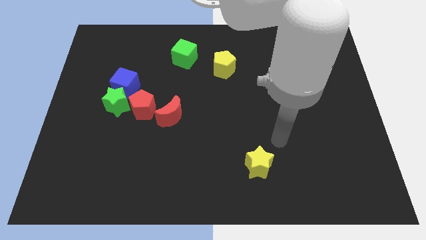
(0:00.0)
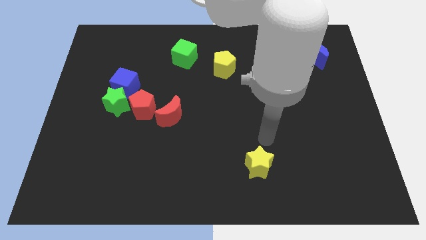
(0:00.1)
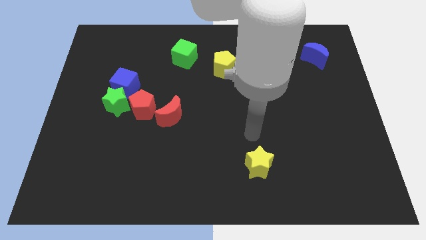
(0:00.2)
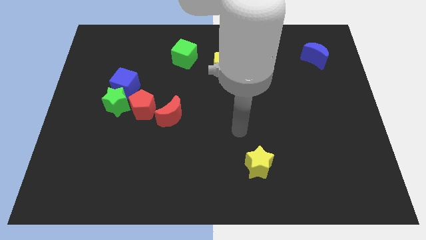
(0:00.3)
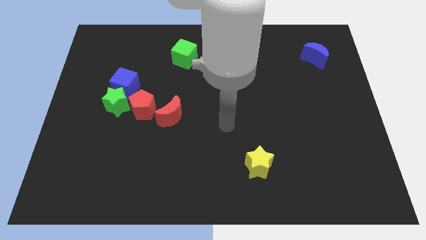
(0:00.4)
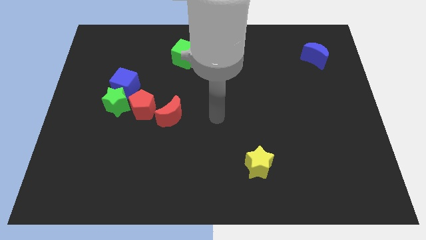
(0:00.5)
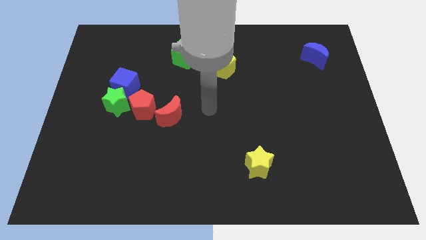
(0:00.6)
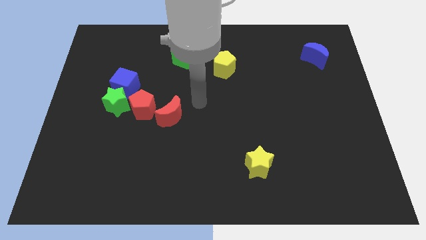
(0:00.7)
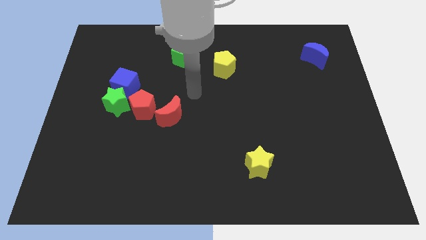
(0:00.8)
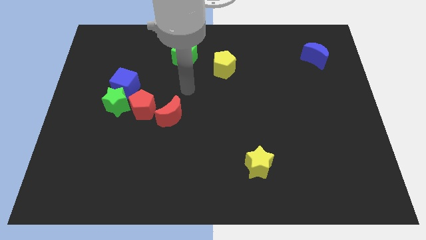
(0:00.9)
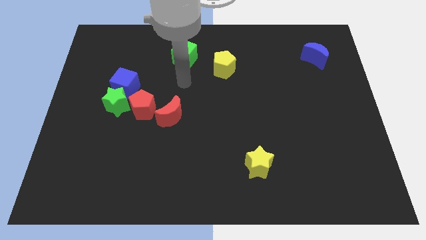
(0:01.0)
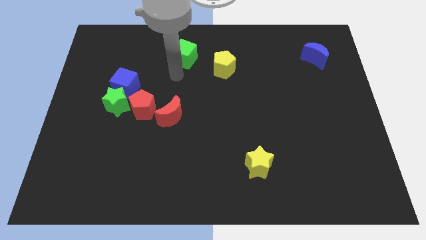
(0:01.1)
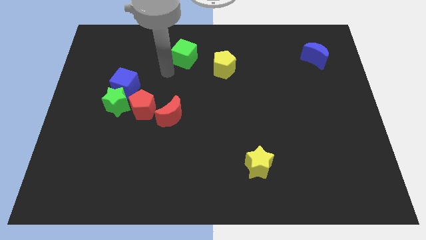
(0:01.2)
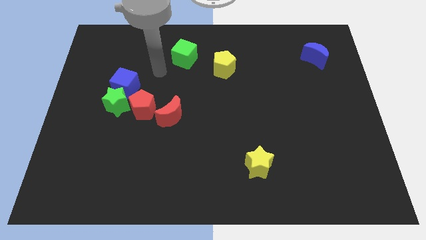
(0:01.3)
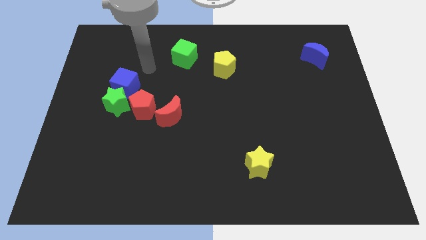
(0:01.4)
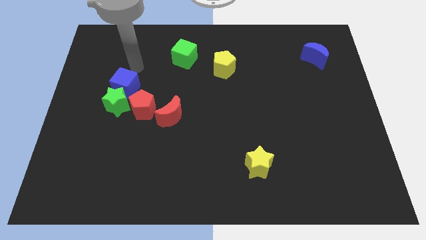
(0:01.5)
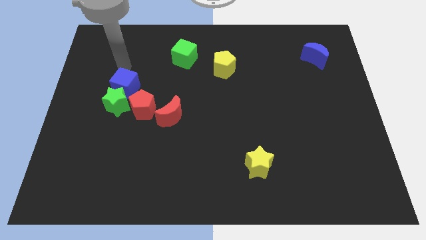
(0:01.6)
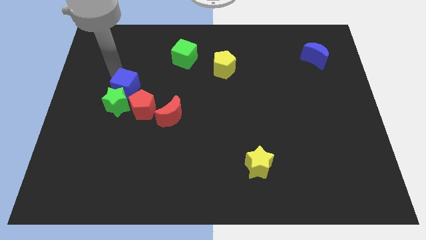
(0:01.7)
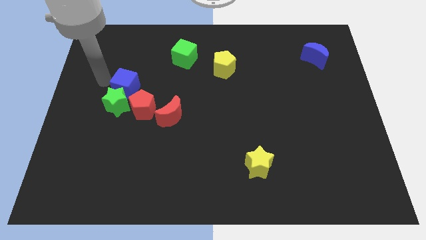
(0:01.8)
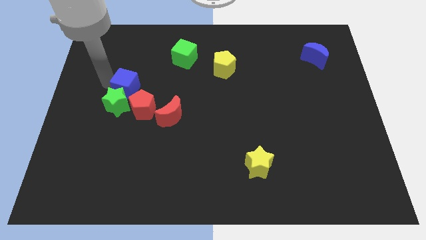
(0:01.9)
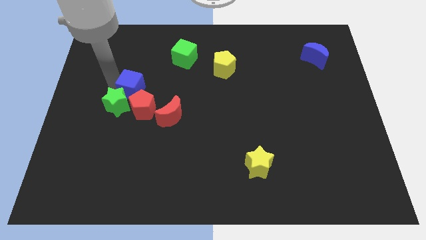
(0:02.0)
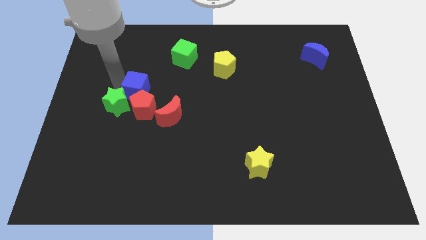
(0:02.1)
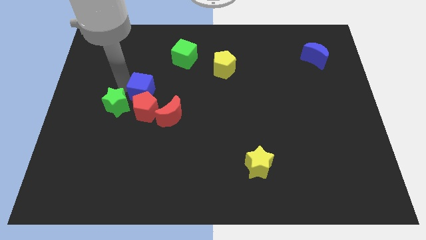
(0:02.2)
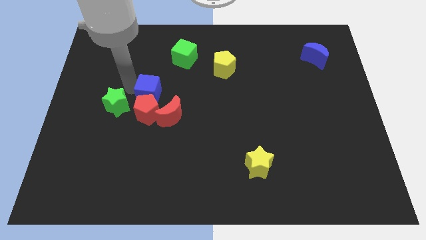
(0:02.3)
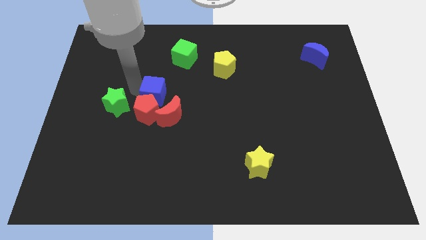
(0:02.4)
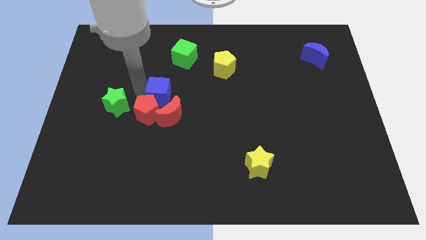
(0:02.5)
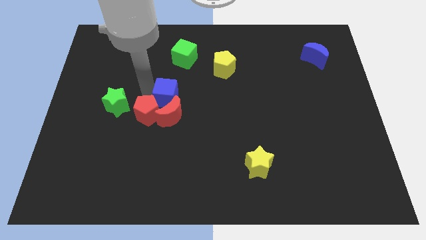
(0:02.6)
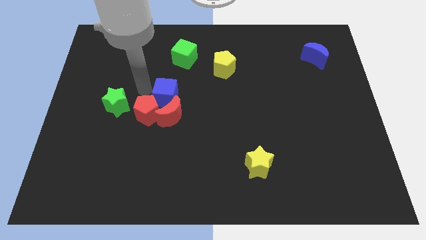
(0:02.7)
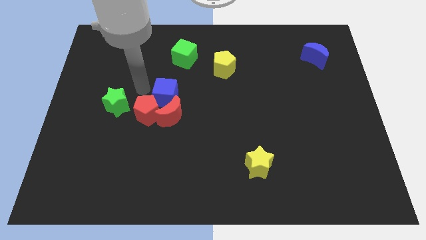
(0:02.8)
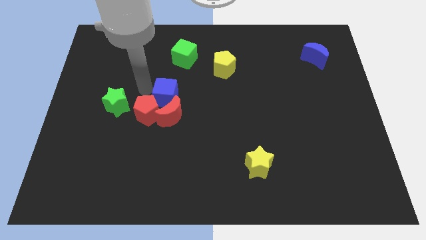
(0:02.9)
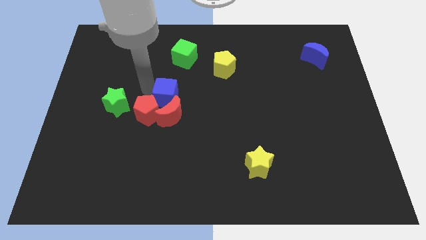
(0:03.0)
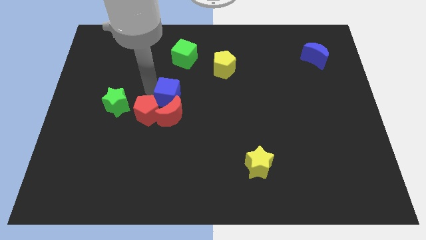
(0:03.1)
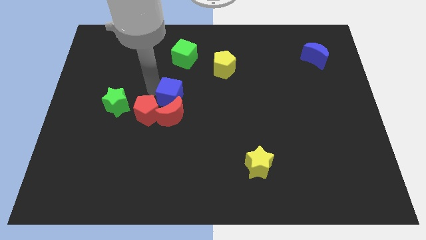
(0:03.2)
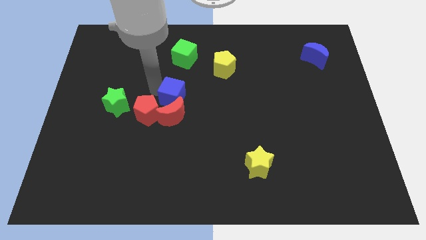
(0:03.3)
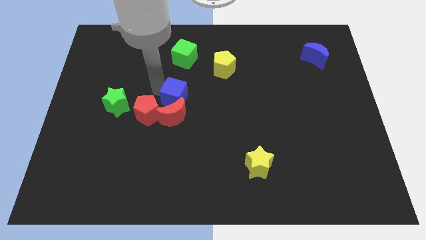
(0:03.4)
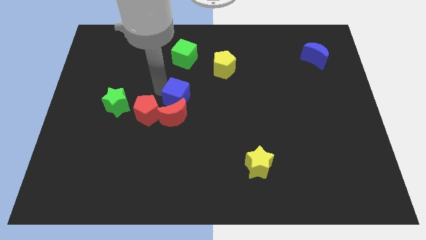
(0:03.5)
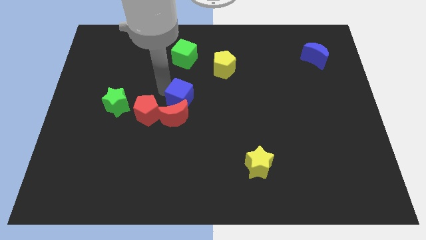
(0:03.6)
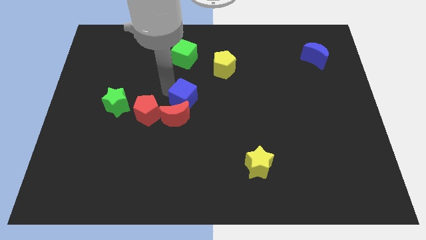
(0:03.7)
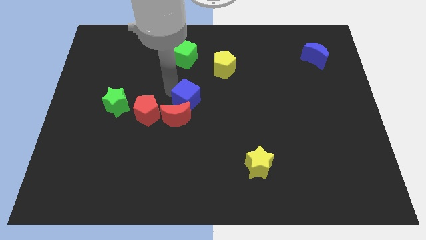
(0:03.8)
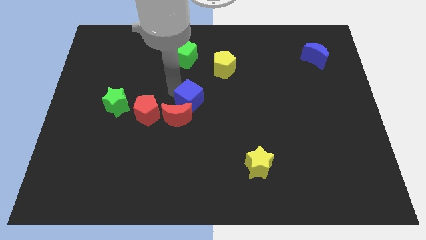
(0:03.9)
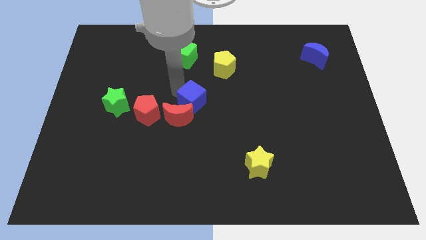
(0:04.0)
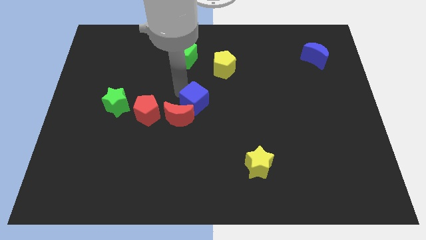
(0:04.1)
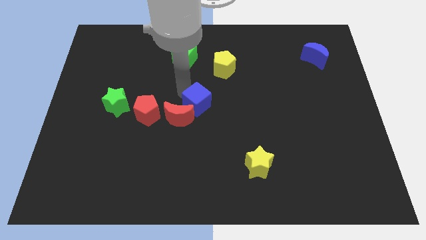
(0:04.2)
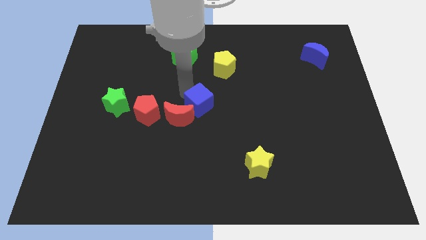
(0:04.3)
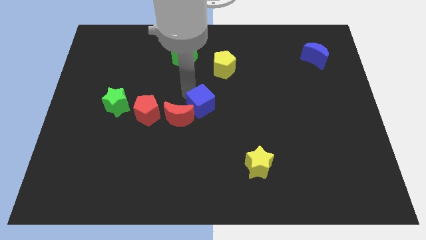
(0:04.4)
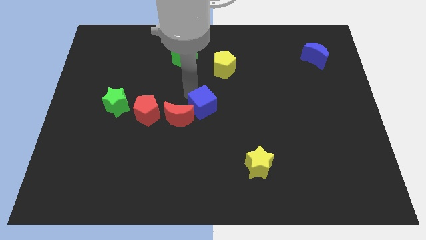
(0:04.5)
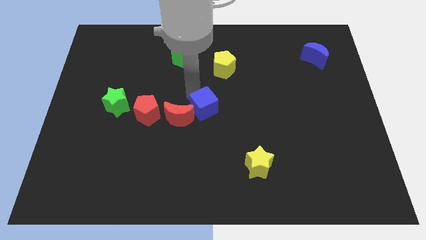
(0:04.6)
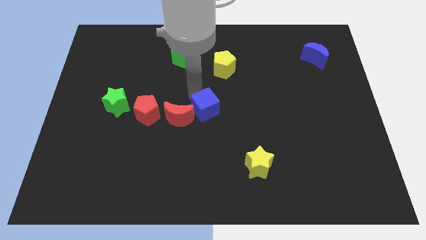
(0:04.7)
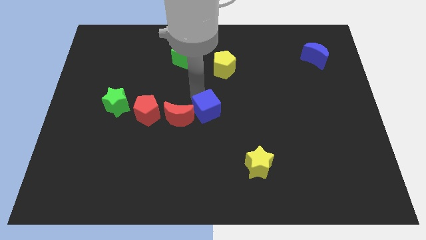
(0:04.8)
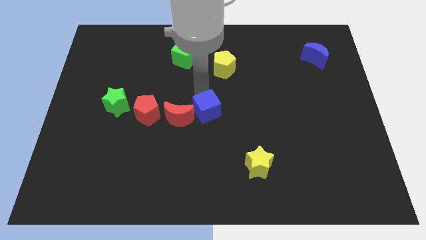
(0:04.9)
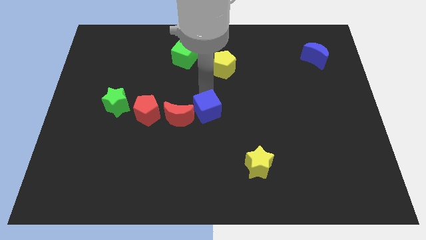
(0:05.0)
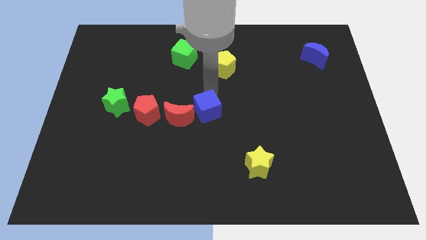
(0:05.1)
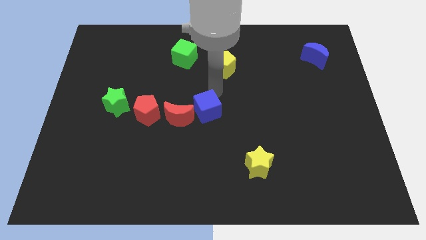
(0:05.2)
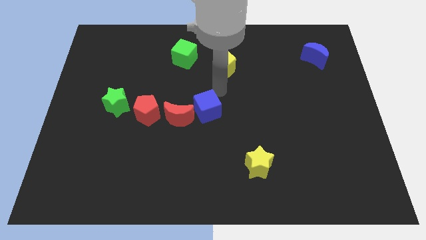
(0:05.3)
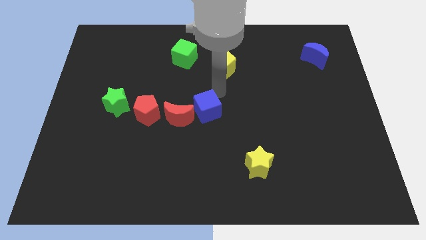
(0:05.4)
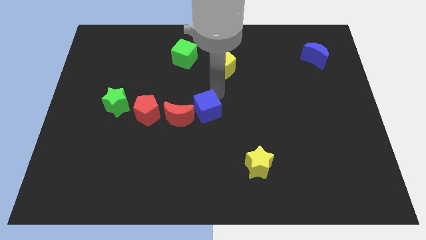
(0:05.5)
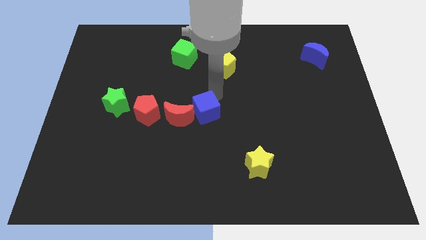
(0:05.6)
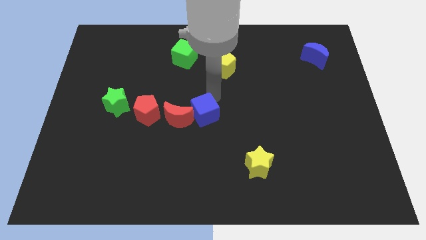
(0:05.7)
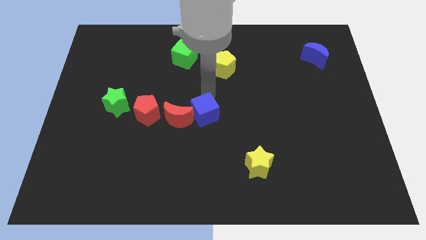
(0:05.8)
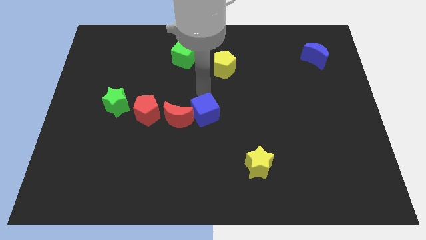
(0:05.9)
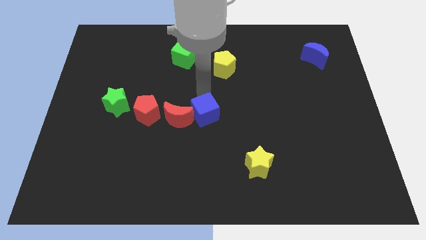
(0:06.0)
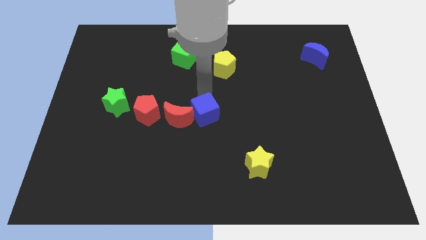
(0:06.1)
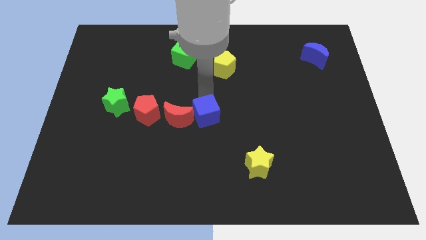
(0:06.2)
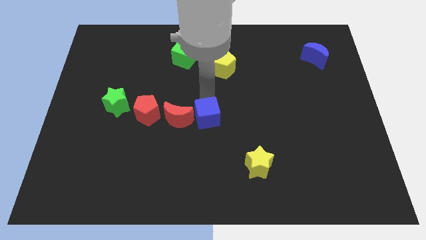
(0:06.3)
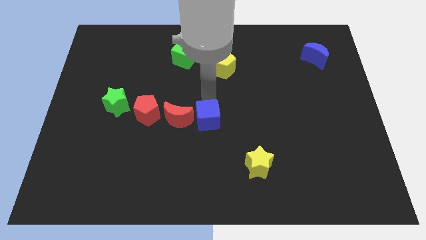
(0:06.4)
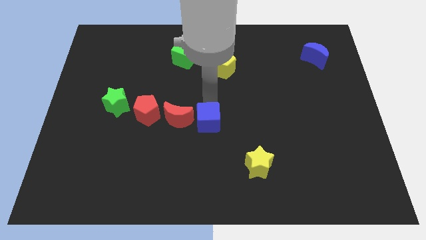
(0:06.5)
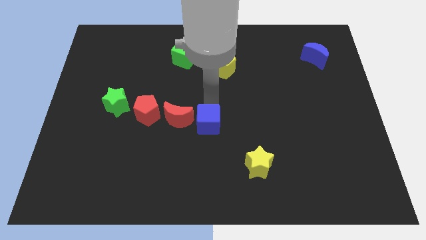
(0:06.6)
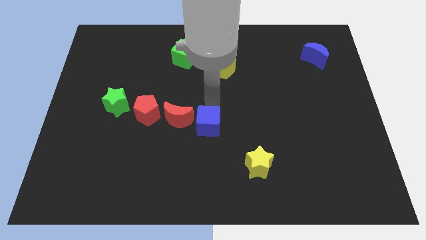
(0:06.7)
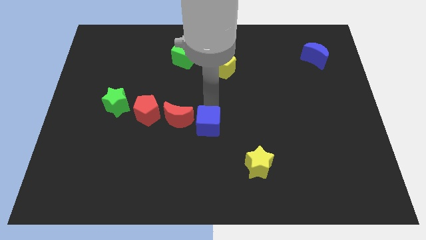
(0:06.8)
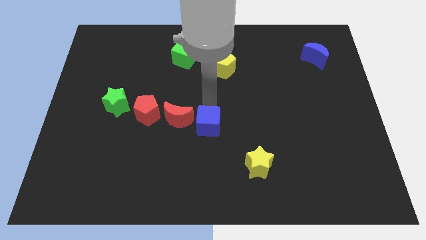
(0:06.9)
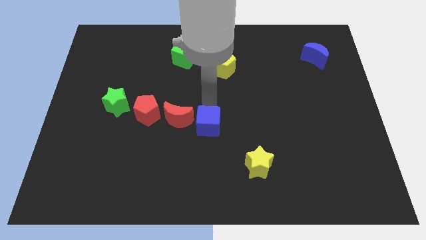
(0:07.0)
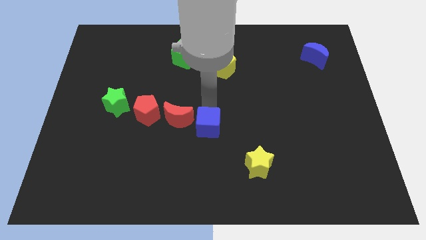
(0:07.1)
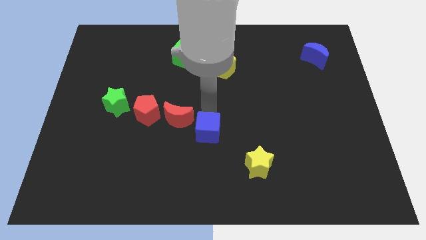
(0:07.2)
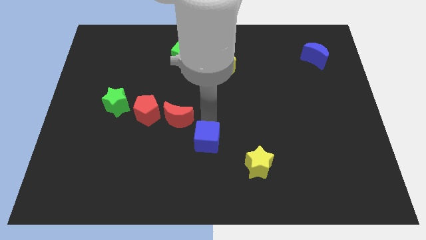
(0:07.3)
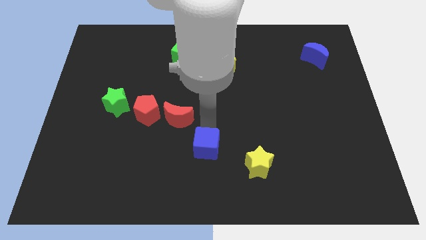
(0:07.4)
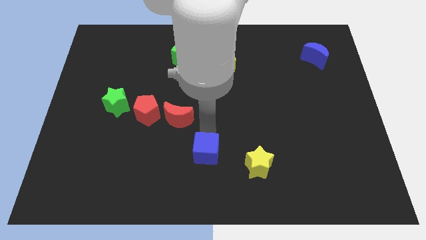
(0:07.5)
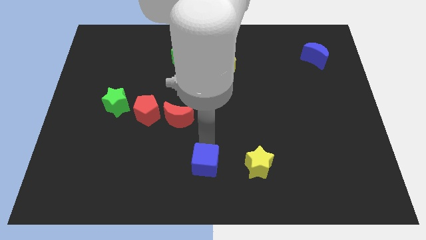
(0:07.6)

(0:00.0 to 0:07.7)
put the blue cube to the bottom side
